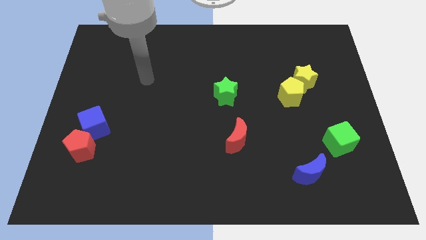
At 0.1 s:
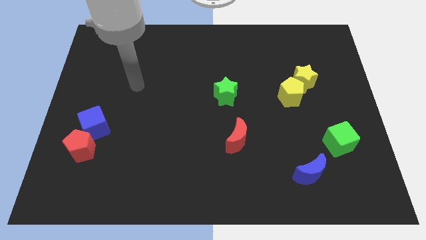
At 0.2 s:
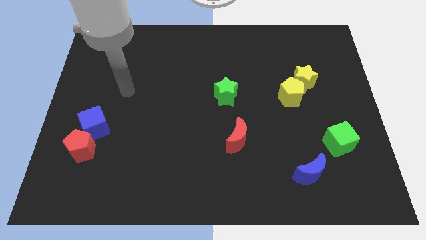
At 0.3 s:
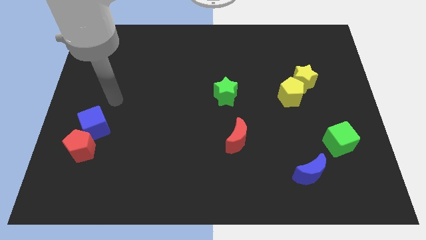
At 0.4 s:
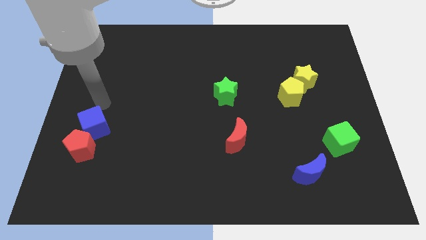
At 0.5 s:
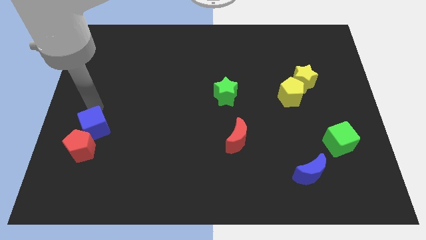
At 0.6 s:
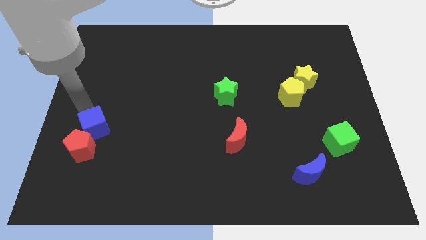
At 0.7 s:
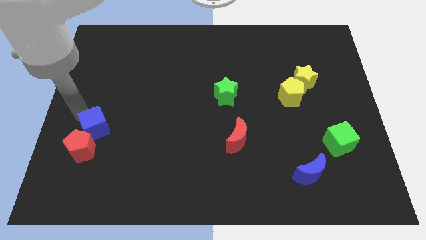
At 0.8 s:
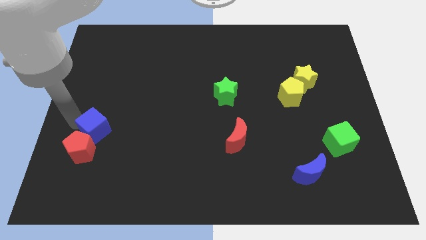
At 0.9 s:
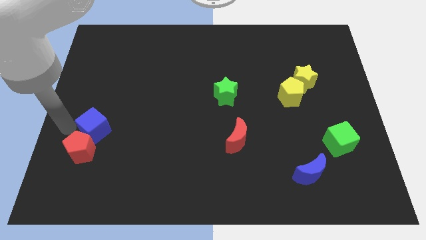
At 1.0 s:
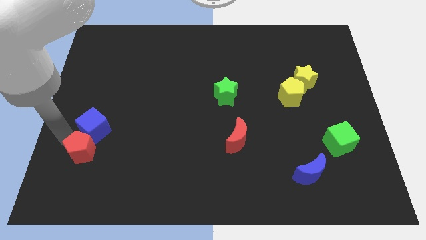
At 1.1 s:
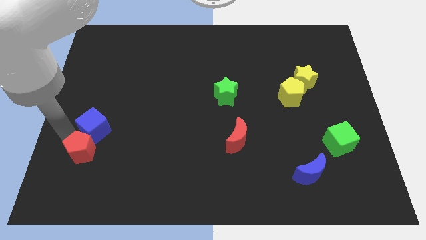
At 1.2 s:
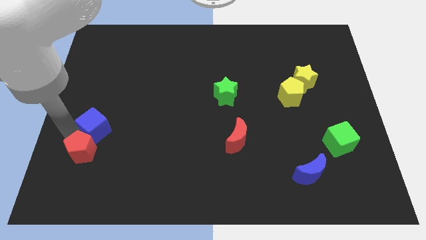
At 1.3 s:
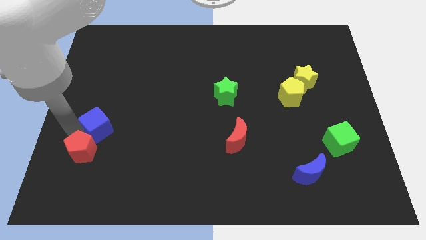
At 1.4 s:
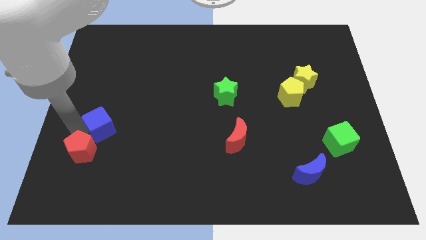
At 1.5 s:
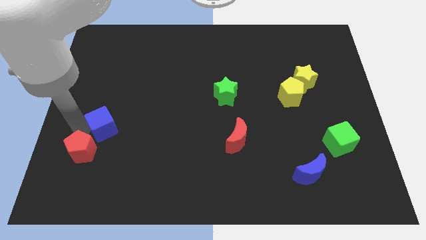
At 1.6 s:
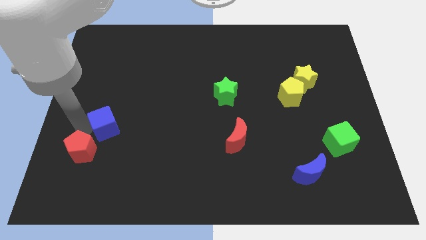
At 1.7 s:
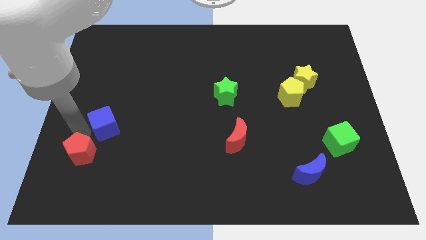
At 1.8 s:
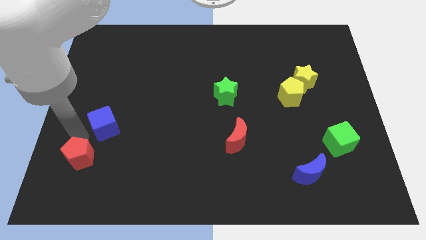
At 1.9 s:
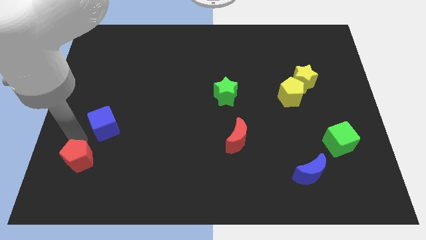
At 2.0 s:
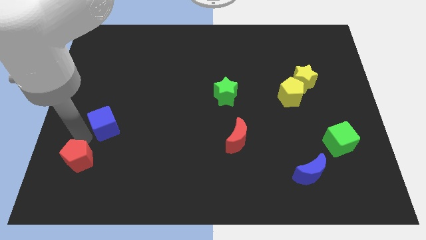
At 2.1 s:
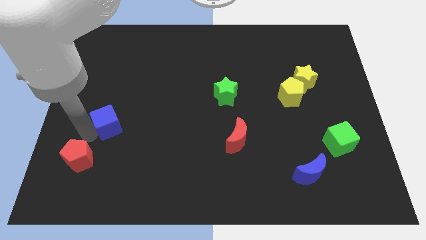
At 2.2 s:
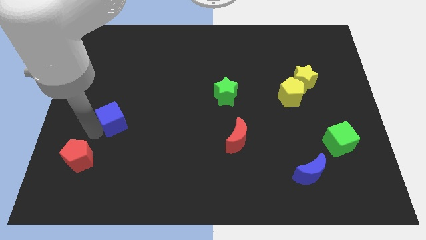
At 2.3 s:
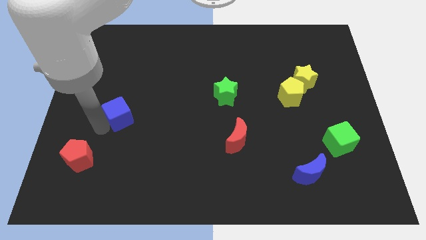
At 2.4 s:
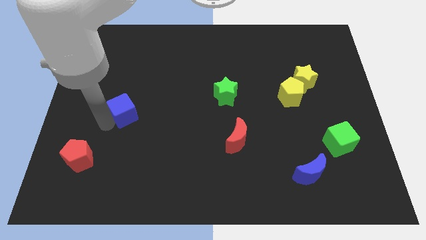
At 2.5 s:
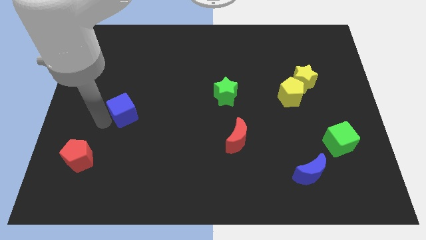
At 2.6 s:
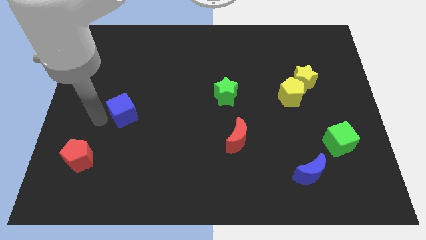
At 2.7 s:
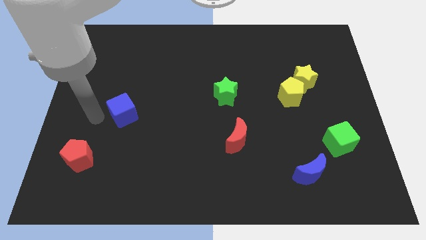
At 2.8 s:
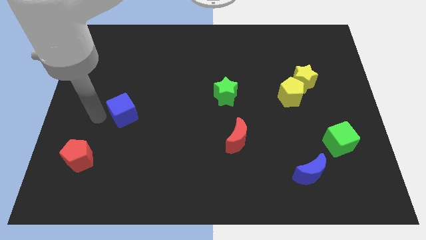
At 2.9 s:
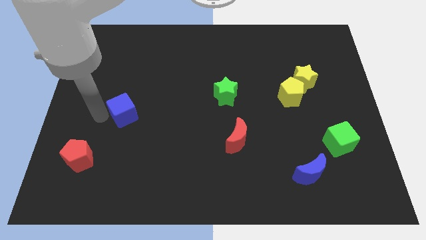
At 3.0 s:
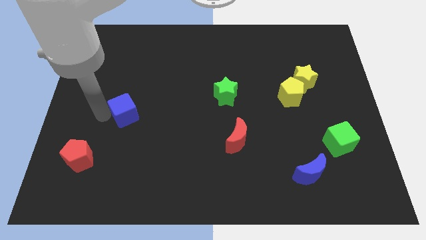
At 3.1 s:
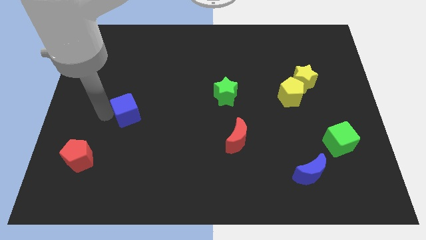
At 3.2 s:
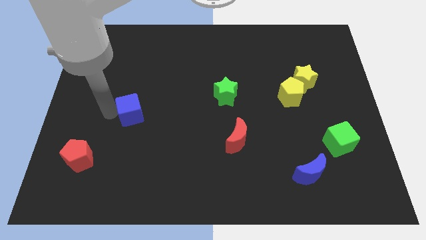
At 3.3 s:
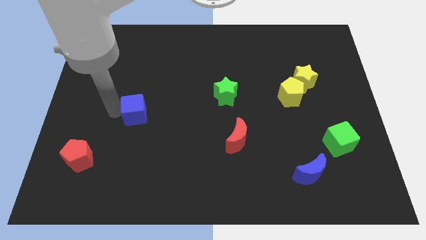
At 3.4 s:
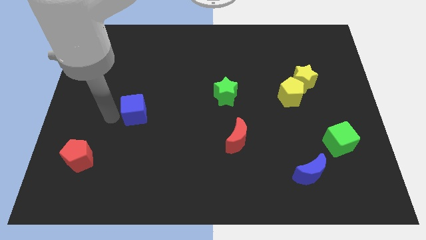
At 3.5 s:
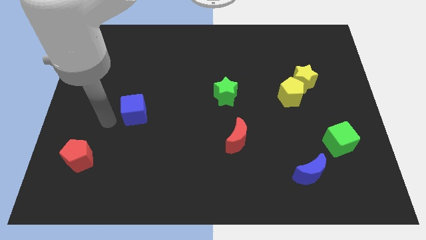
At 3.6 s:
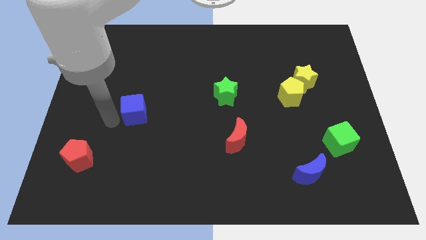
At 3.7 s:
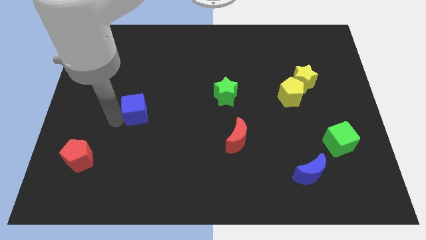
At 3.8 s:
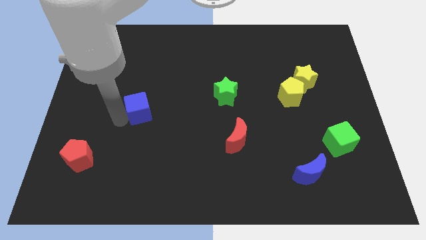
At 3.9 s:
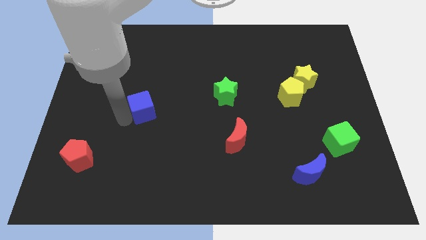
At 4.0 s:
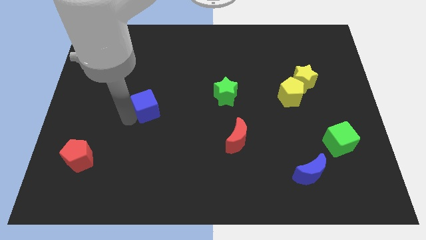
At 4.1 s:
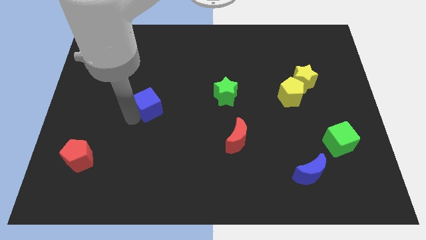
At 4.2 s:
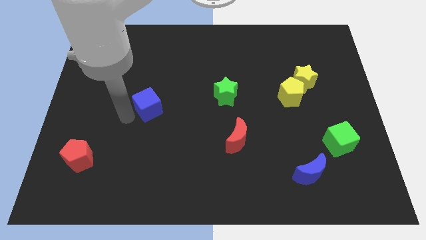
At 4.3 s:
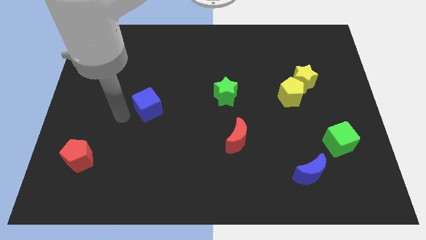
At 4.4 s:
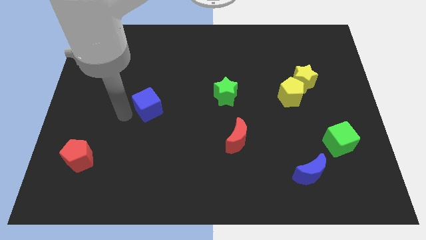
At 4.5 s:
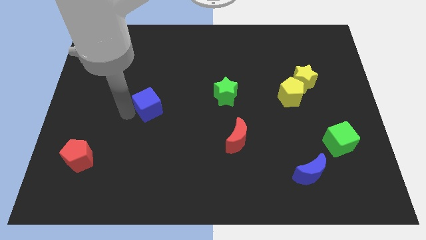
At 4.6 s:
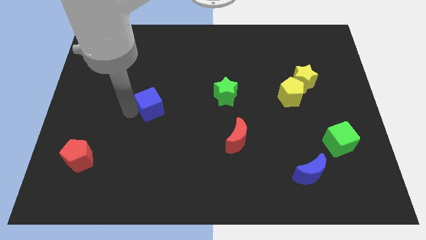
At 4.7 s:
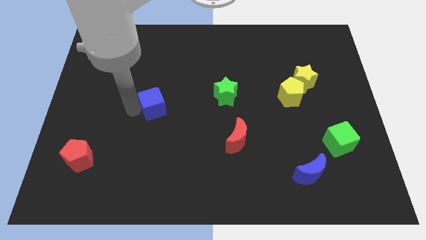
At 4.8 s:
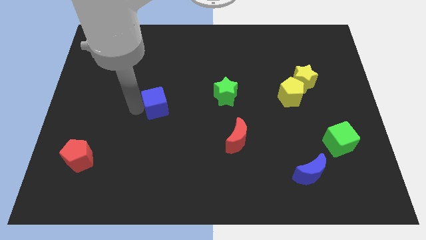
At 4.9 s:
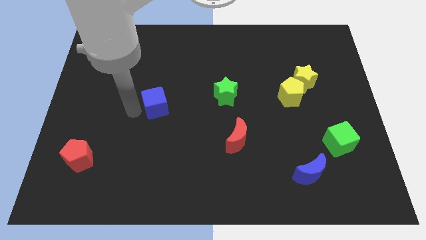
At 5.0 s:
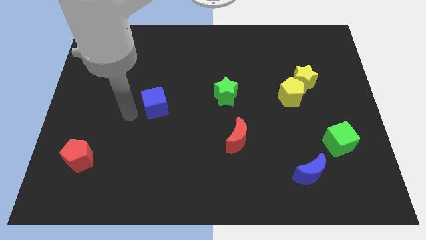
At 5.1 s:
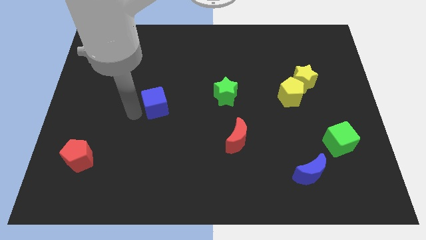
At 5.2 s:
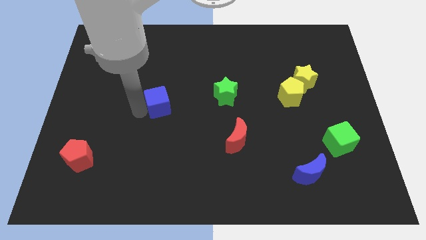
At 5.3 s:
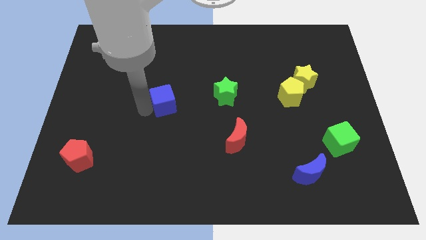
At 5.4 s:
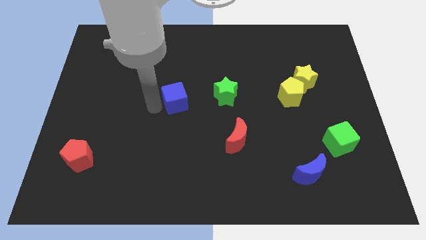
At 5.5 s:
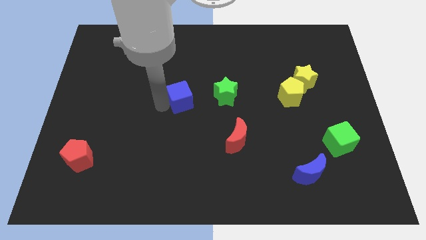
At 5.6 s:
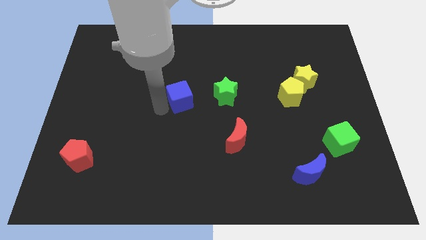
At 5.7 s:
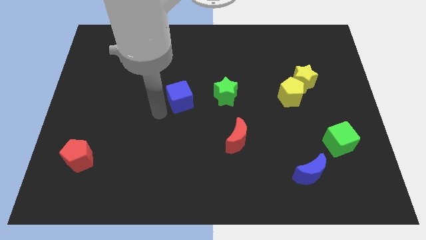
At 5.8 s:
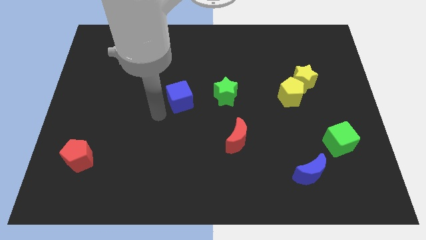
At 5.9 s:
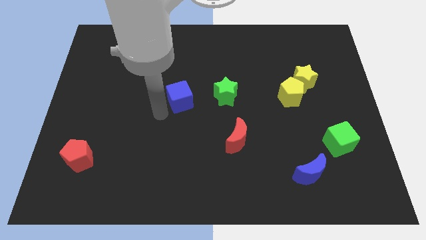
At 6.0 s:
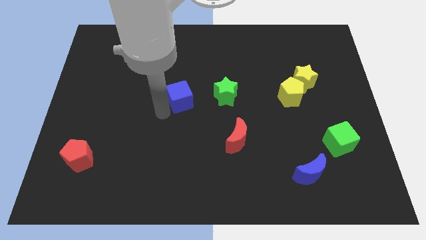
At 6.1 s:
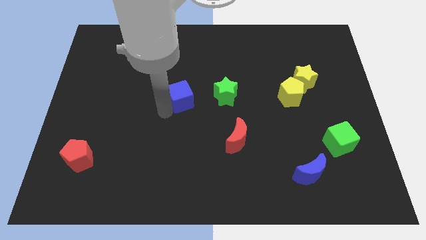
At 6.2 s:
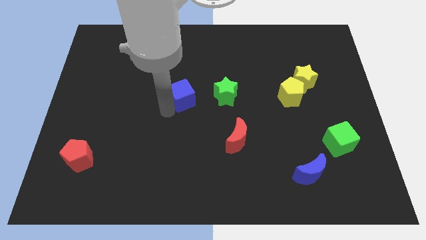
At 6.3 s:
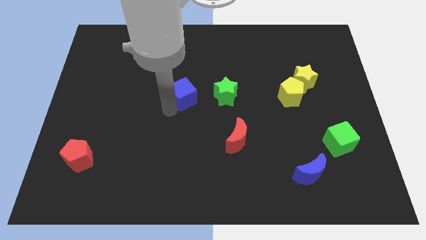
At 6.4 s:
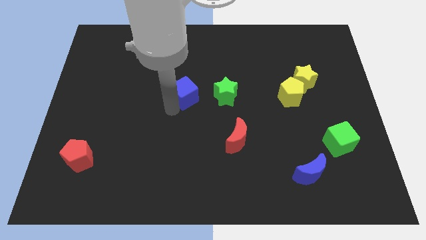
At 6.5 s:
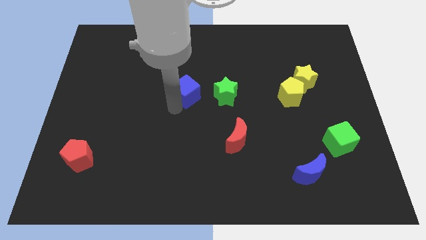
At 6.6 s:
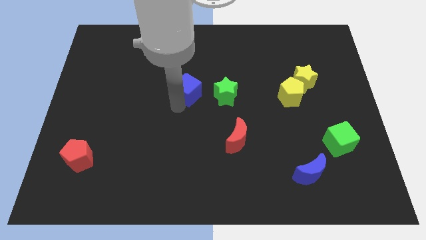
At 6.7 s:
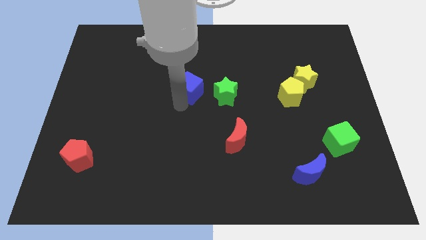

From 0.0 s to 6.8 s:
put the blue cube to the top left side of the green star

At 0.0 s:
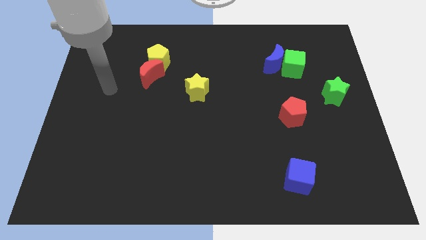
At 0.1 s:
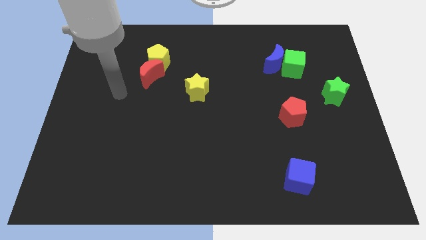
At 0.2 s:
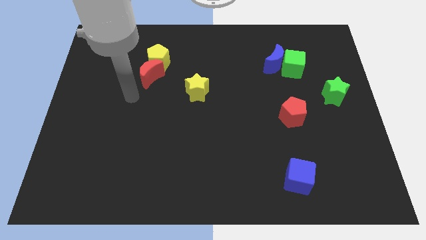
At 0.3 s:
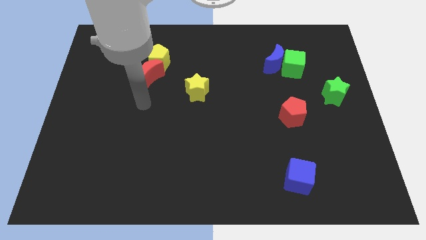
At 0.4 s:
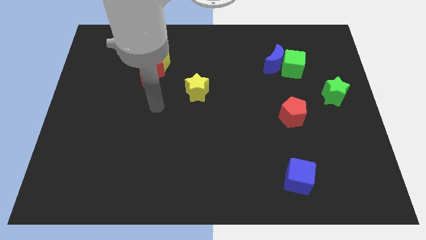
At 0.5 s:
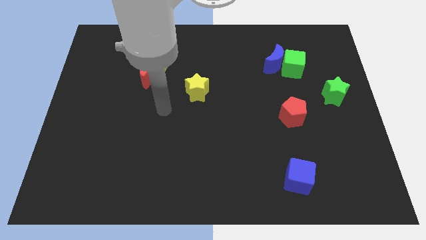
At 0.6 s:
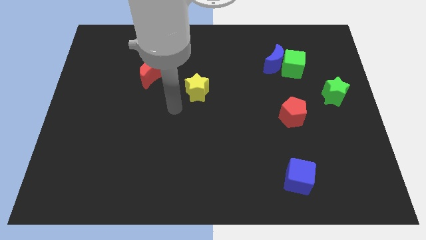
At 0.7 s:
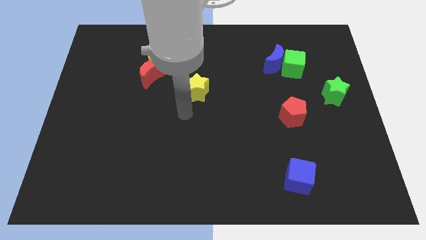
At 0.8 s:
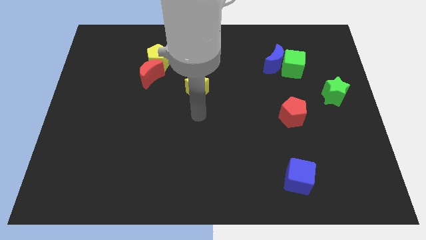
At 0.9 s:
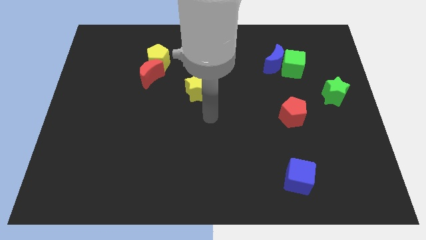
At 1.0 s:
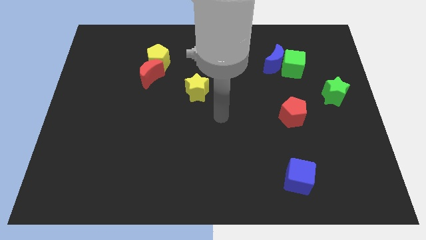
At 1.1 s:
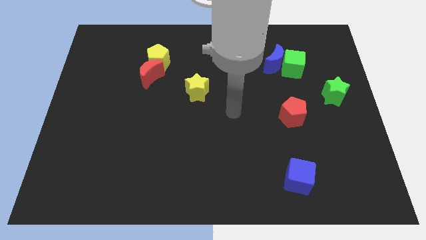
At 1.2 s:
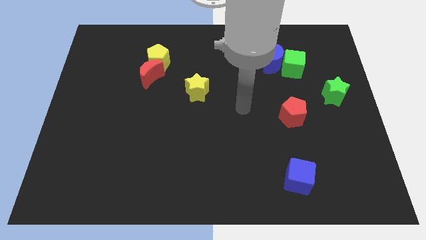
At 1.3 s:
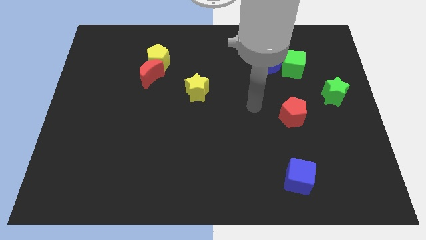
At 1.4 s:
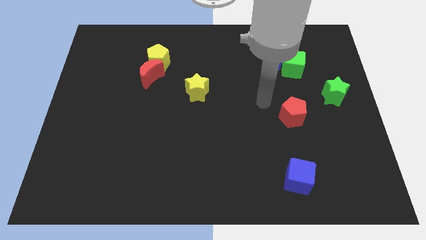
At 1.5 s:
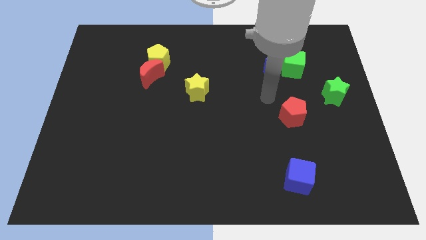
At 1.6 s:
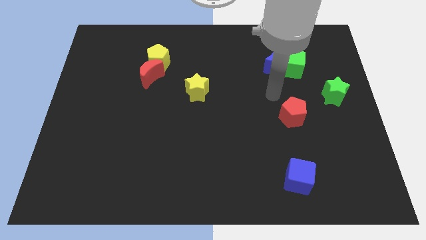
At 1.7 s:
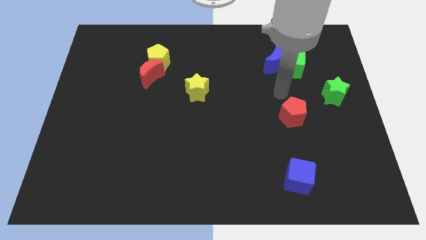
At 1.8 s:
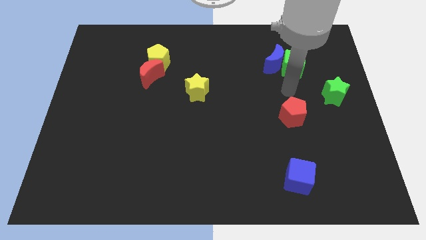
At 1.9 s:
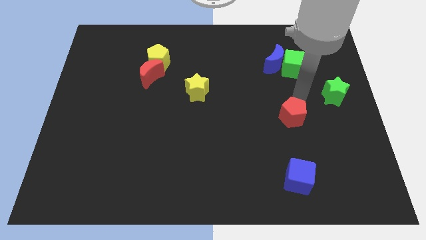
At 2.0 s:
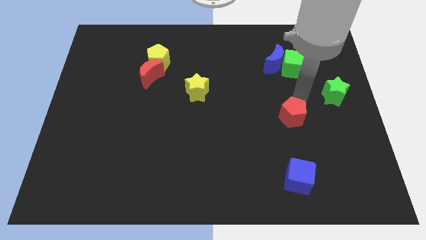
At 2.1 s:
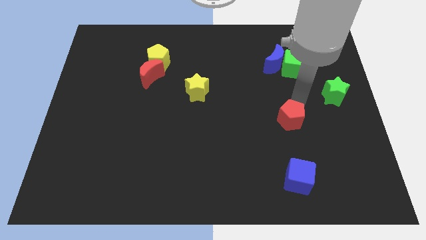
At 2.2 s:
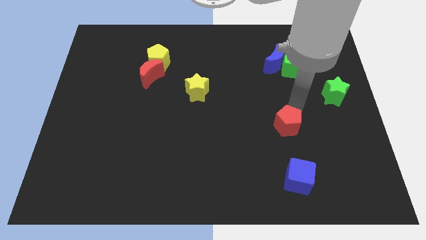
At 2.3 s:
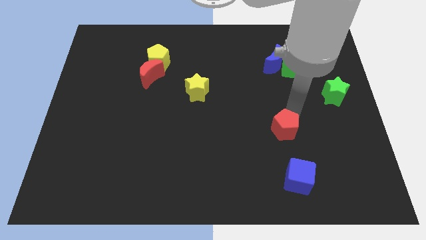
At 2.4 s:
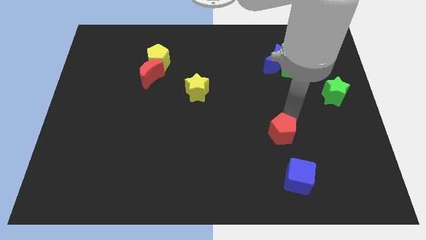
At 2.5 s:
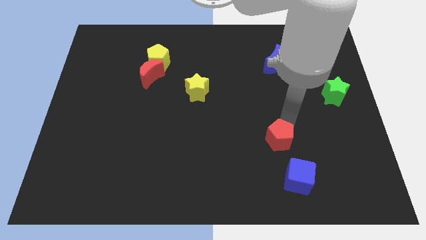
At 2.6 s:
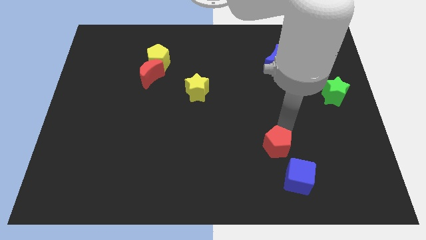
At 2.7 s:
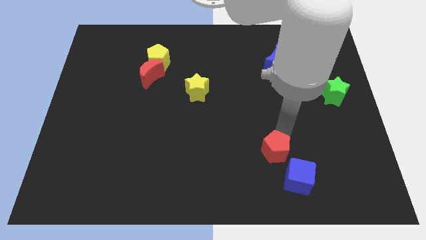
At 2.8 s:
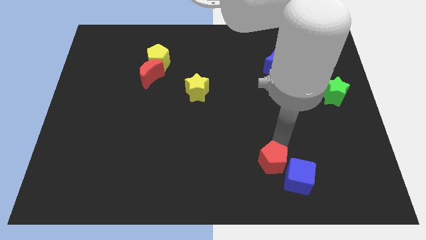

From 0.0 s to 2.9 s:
push the red pentagon to the left side of the blue cube
